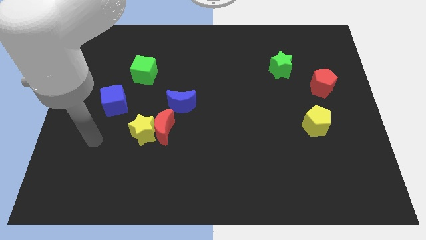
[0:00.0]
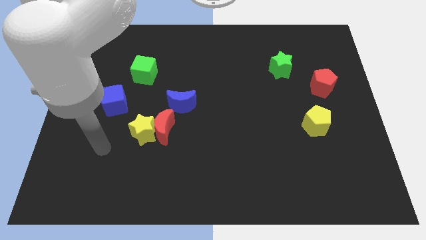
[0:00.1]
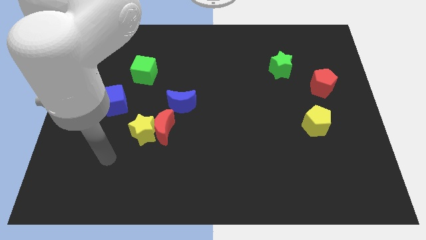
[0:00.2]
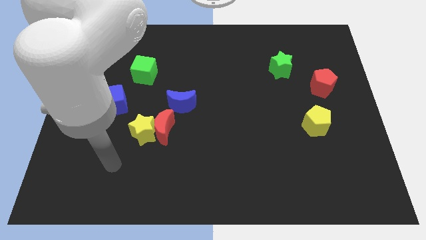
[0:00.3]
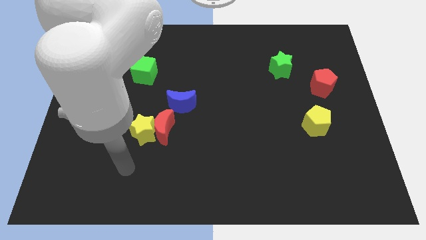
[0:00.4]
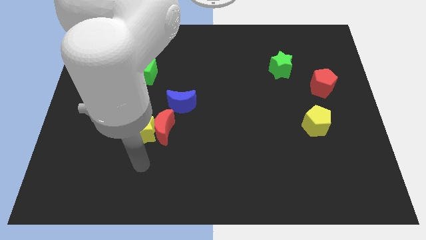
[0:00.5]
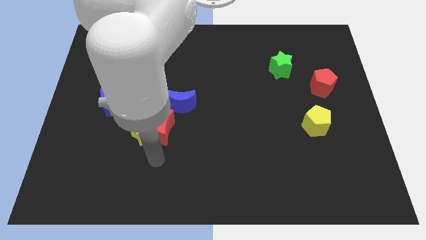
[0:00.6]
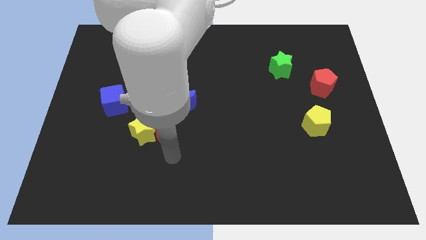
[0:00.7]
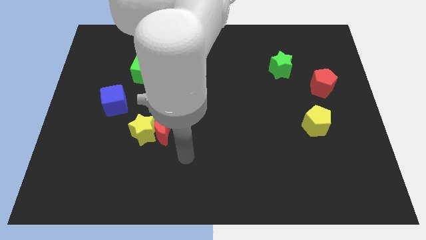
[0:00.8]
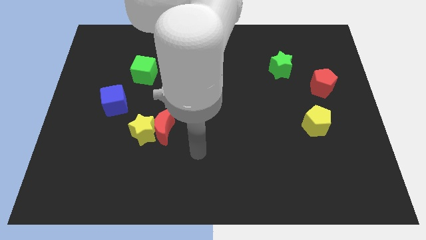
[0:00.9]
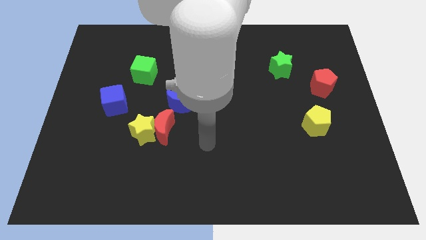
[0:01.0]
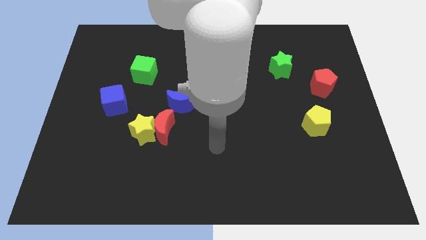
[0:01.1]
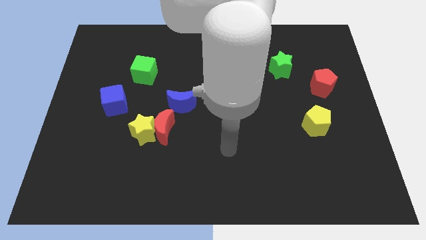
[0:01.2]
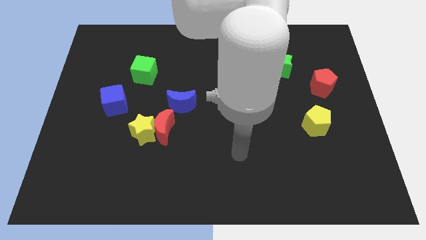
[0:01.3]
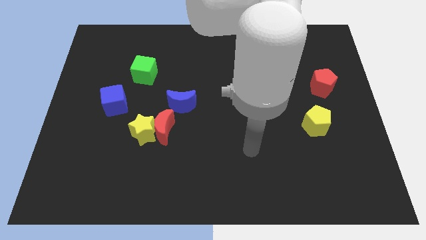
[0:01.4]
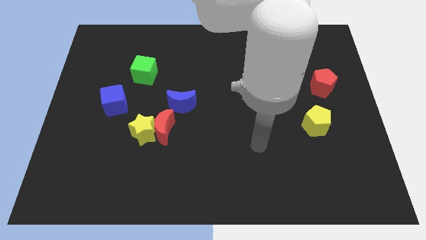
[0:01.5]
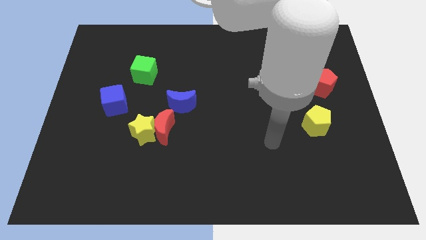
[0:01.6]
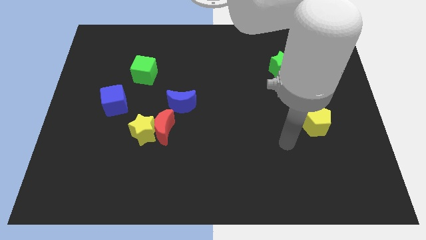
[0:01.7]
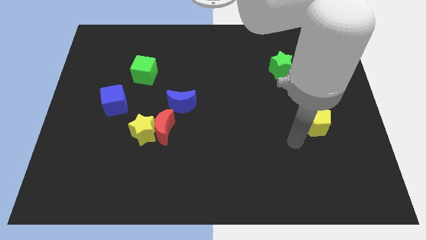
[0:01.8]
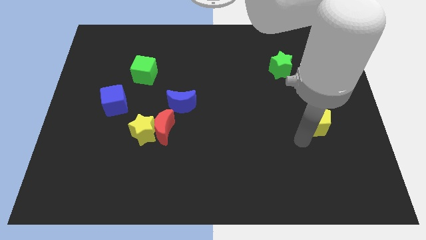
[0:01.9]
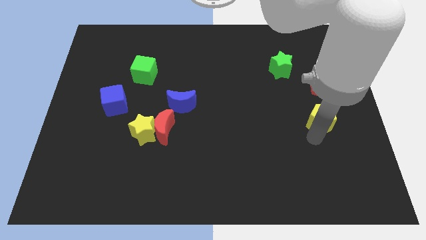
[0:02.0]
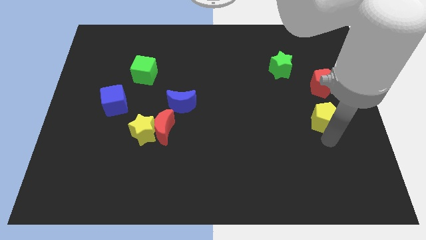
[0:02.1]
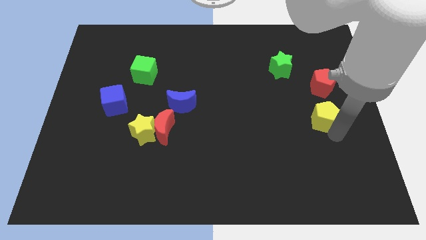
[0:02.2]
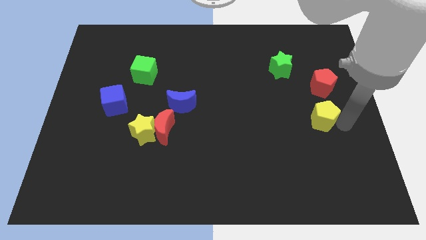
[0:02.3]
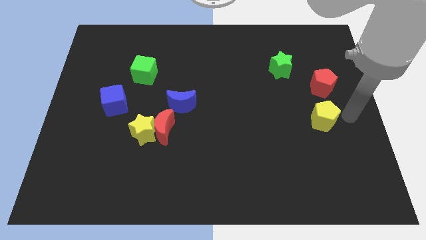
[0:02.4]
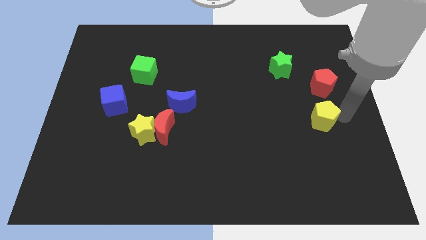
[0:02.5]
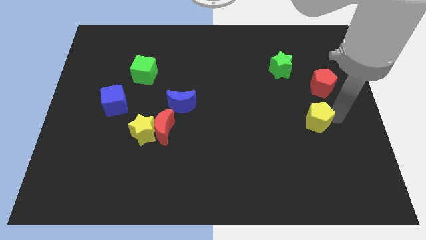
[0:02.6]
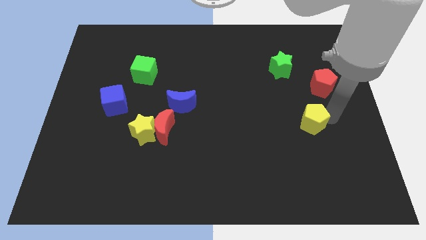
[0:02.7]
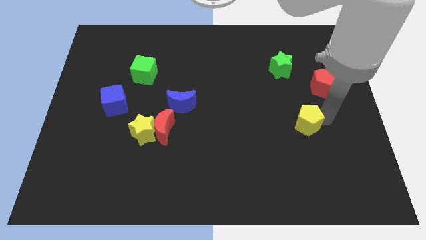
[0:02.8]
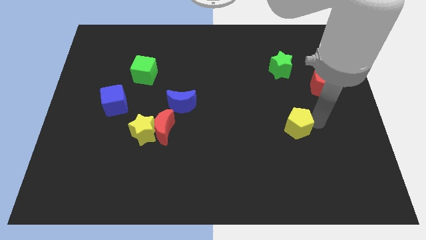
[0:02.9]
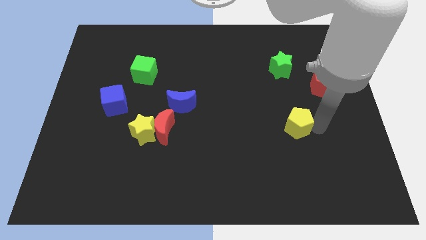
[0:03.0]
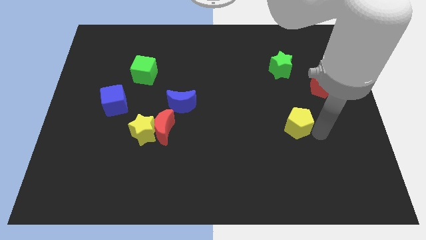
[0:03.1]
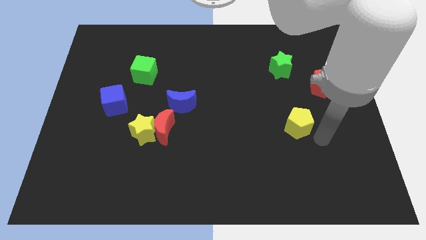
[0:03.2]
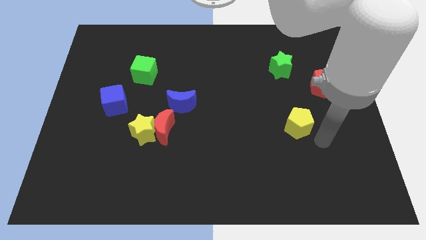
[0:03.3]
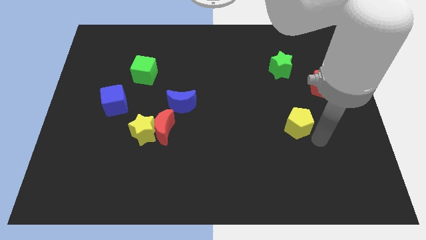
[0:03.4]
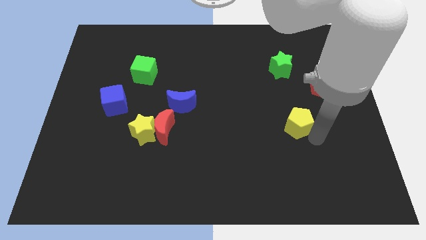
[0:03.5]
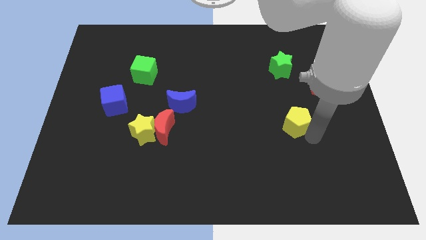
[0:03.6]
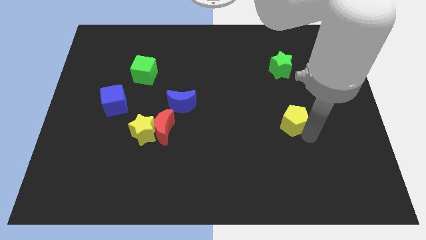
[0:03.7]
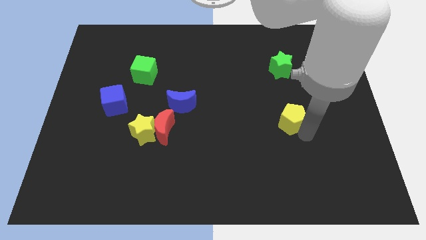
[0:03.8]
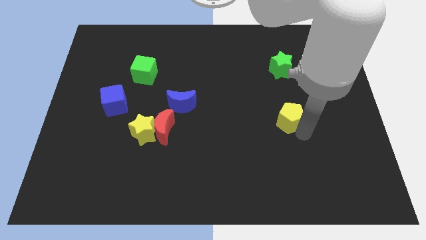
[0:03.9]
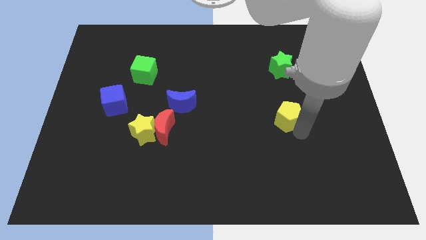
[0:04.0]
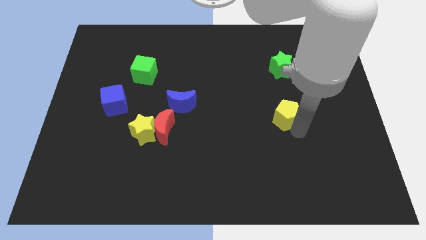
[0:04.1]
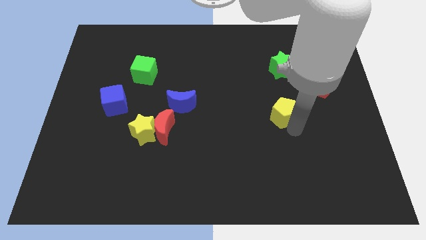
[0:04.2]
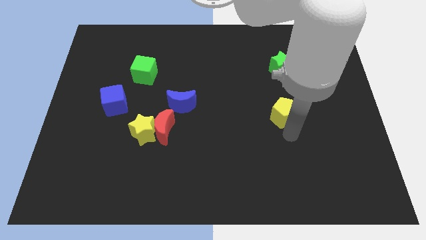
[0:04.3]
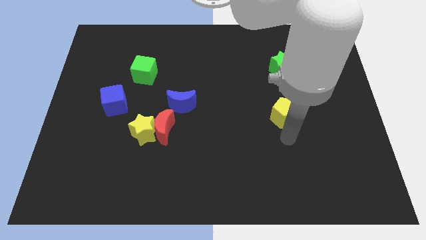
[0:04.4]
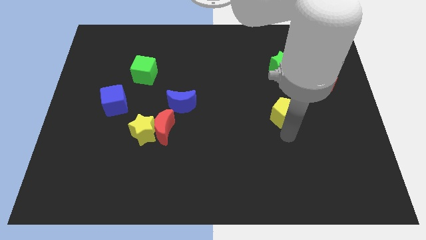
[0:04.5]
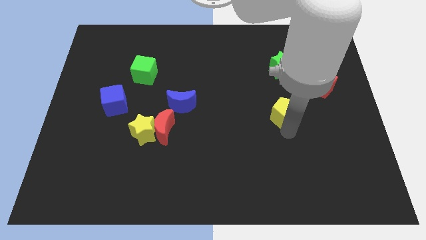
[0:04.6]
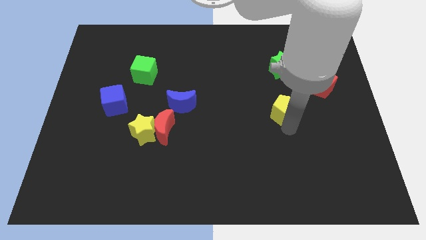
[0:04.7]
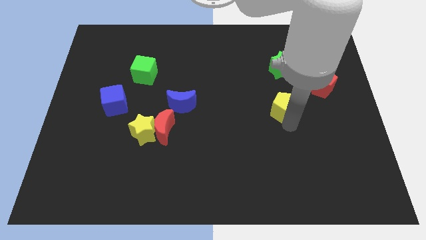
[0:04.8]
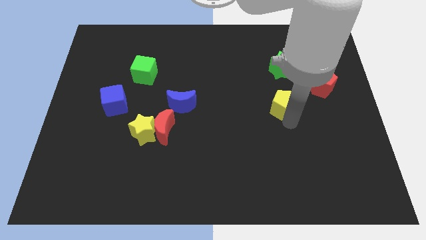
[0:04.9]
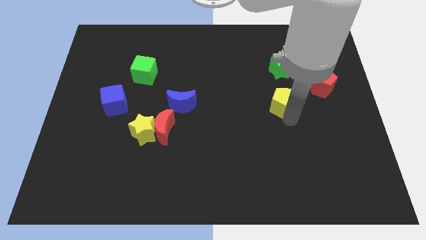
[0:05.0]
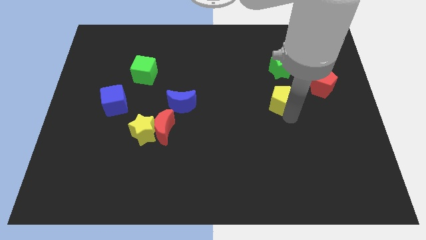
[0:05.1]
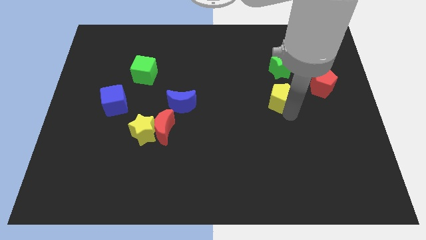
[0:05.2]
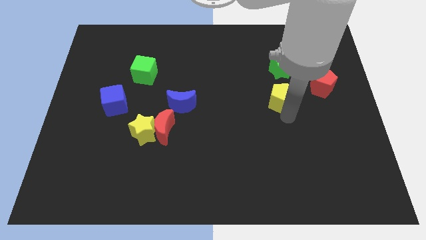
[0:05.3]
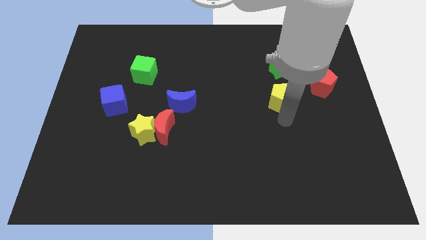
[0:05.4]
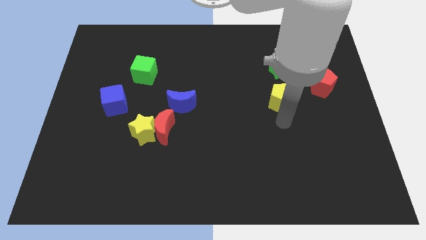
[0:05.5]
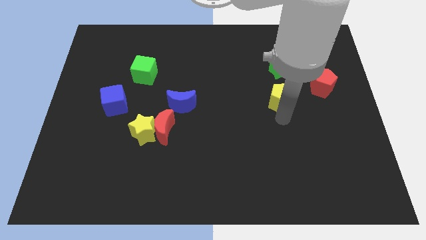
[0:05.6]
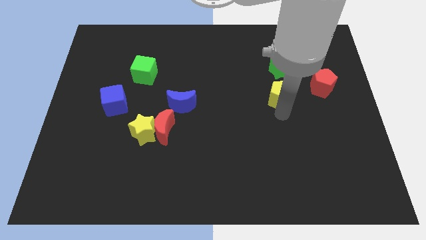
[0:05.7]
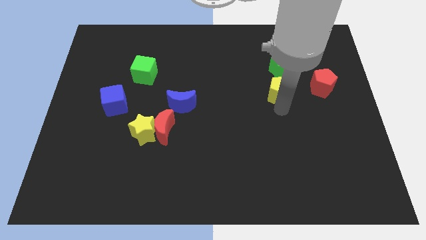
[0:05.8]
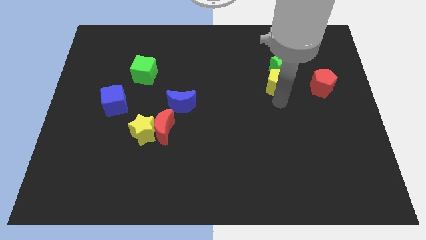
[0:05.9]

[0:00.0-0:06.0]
slide the yellow pentagon towards the green star

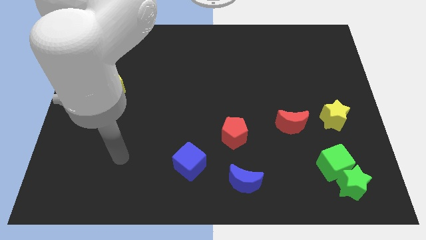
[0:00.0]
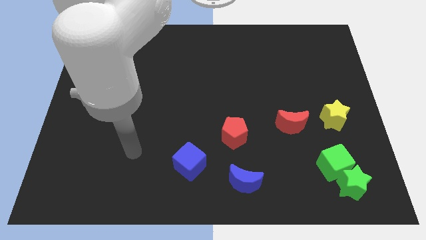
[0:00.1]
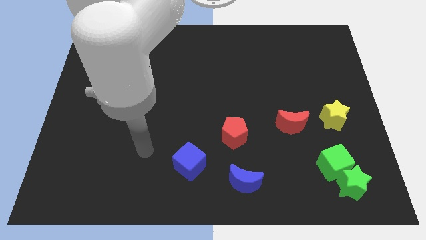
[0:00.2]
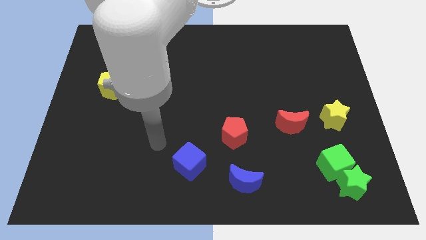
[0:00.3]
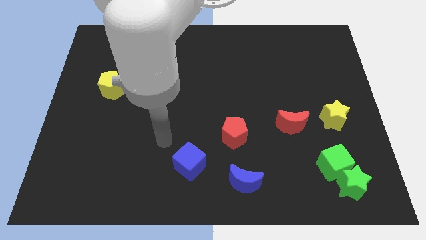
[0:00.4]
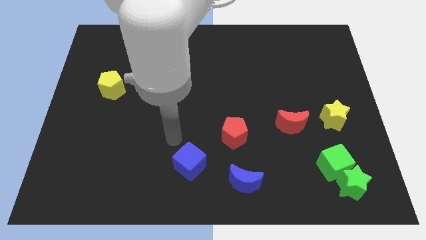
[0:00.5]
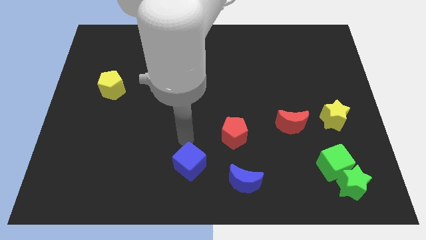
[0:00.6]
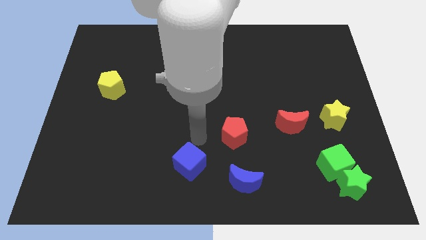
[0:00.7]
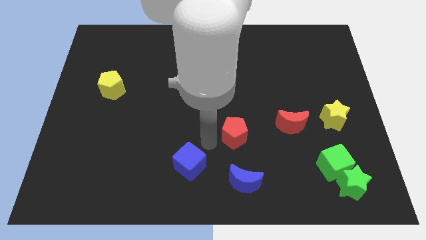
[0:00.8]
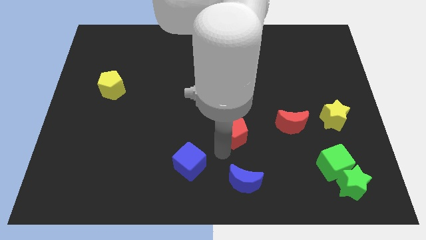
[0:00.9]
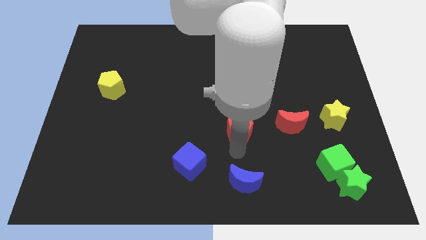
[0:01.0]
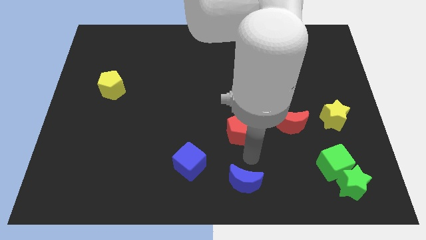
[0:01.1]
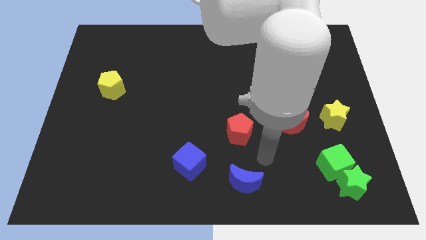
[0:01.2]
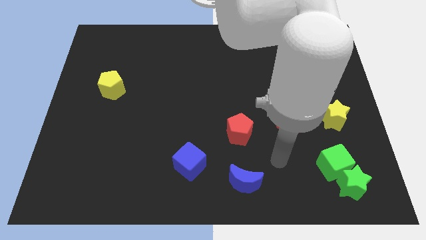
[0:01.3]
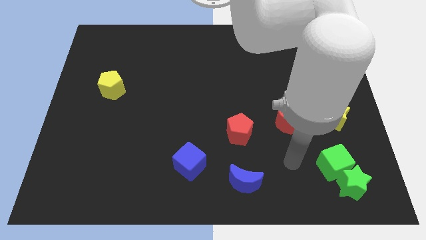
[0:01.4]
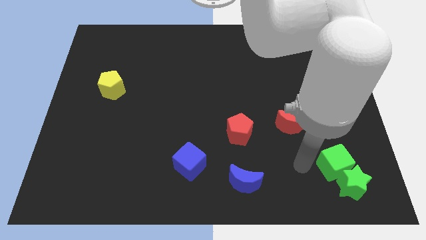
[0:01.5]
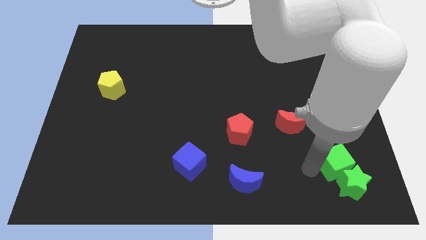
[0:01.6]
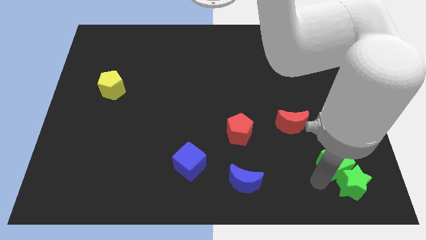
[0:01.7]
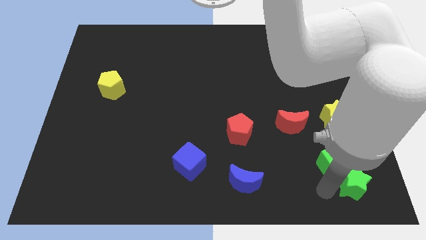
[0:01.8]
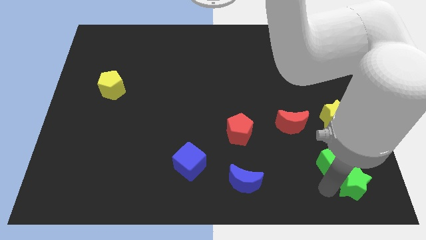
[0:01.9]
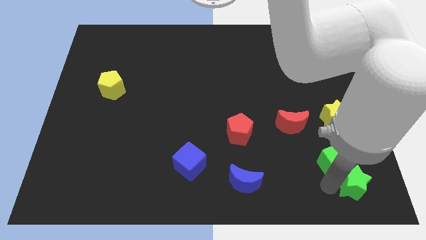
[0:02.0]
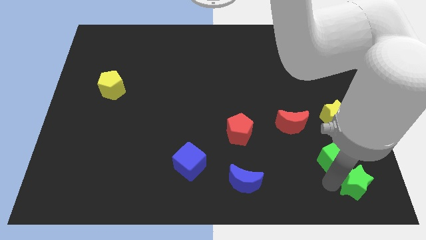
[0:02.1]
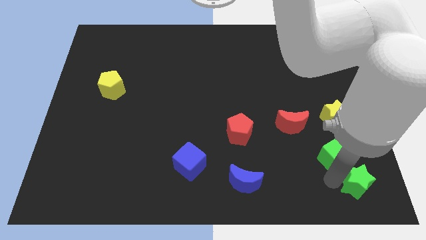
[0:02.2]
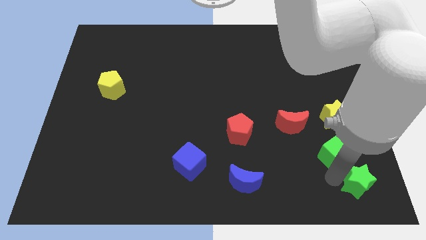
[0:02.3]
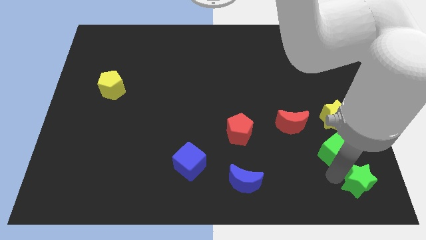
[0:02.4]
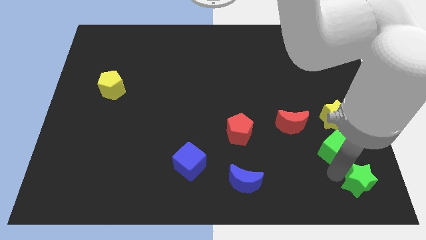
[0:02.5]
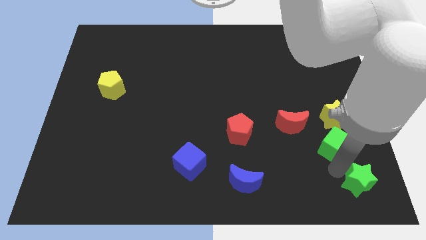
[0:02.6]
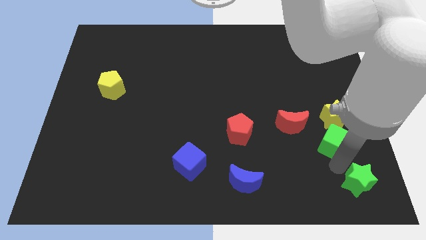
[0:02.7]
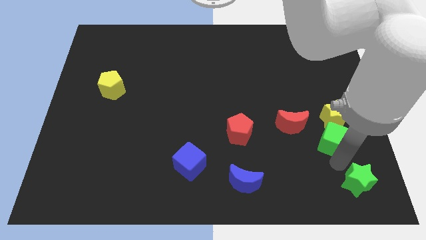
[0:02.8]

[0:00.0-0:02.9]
slide the green cube next to the yellow star
